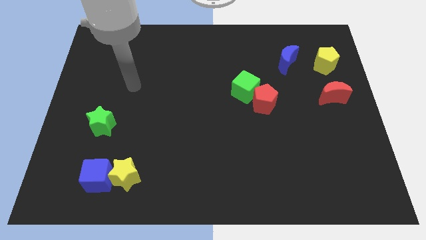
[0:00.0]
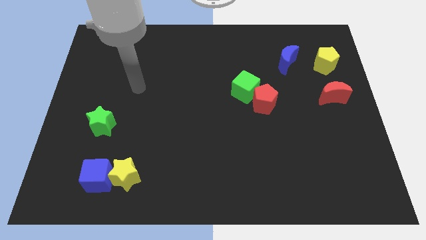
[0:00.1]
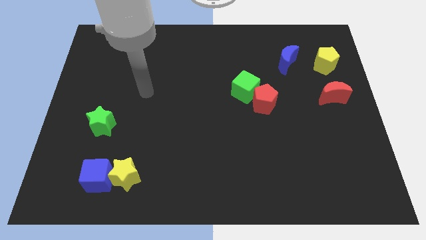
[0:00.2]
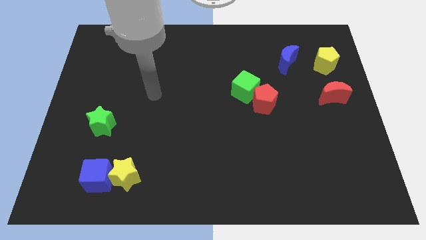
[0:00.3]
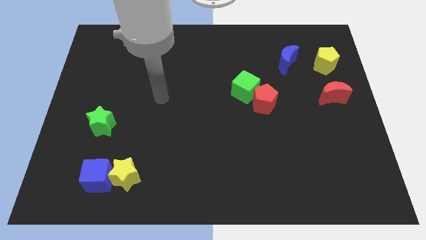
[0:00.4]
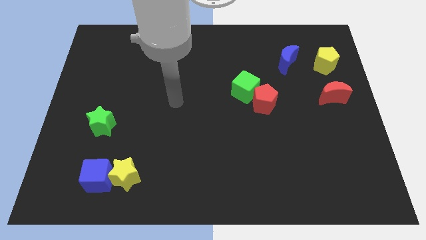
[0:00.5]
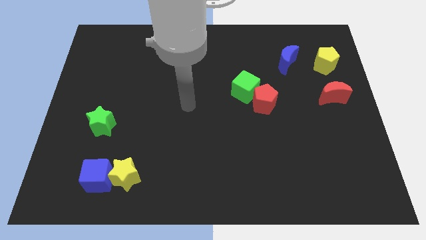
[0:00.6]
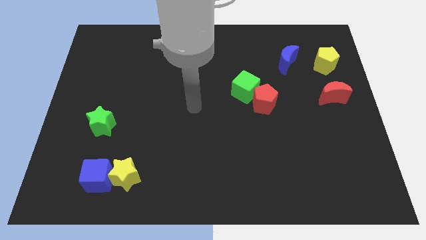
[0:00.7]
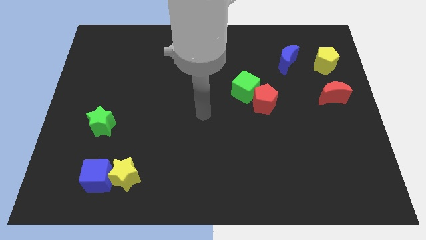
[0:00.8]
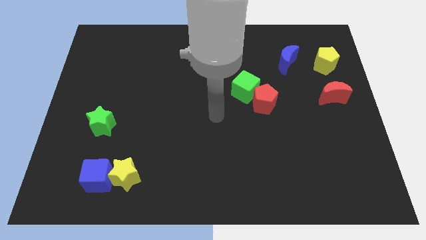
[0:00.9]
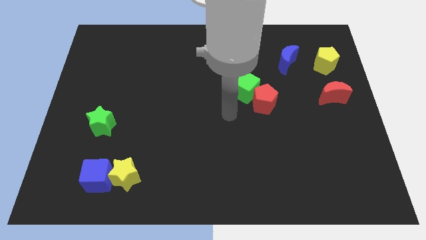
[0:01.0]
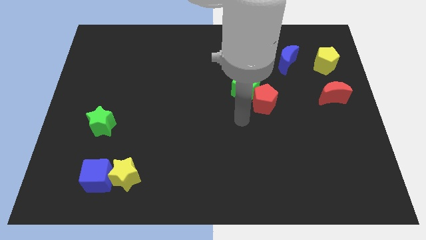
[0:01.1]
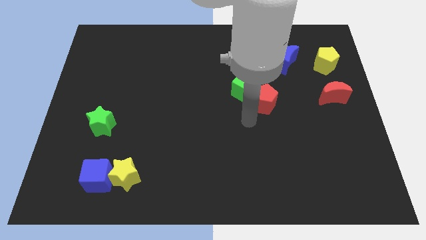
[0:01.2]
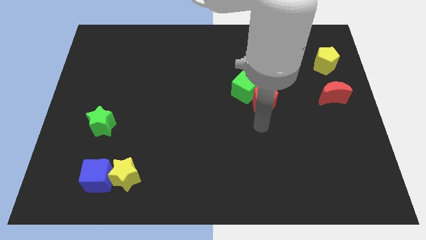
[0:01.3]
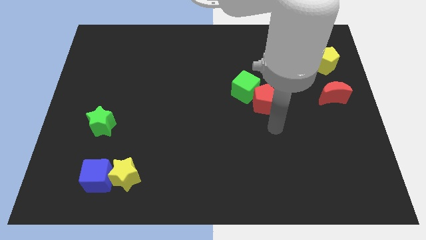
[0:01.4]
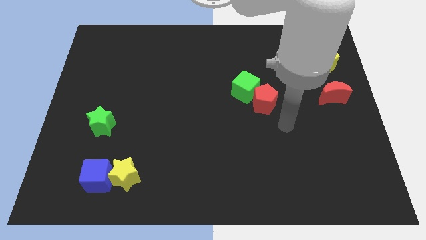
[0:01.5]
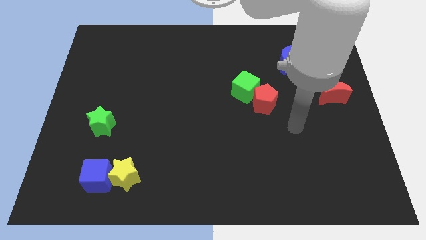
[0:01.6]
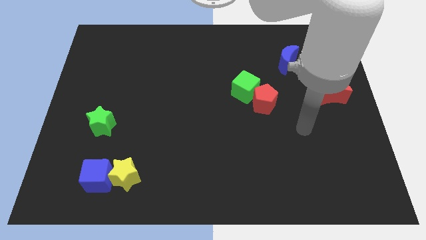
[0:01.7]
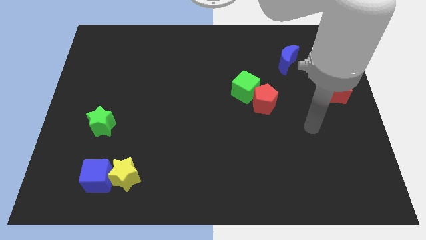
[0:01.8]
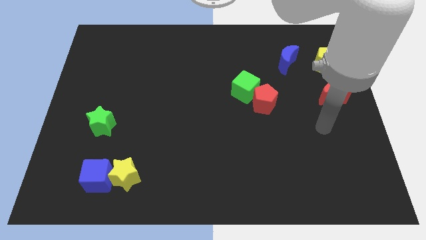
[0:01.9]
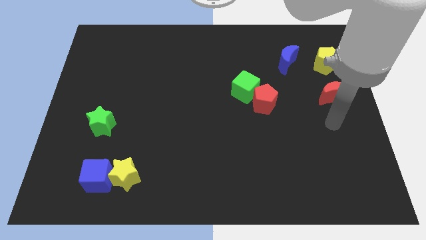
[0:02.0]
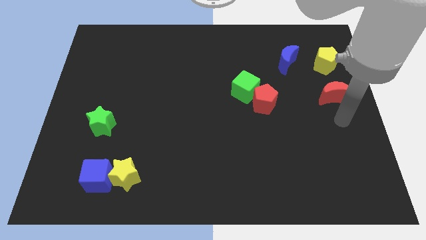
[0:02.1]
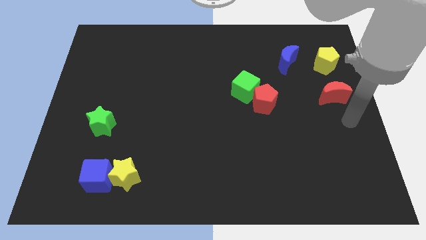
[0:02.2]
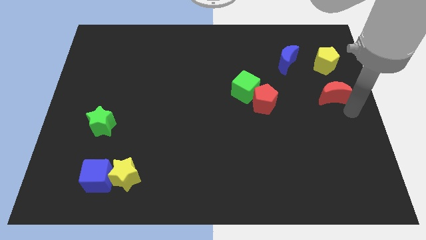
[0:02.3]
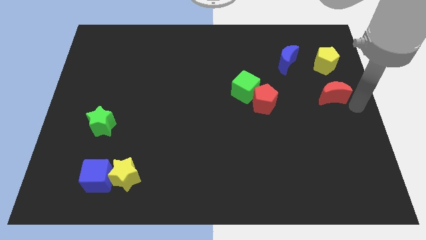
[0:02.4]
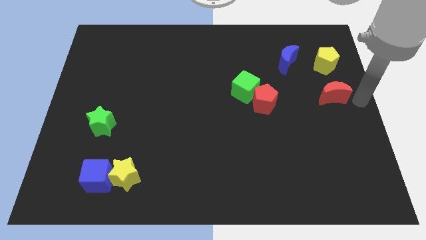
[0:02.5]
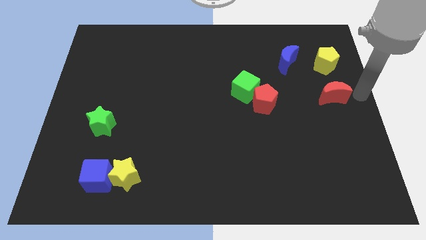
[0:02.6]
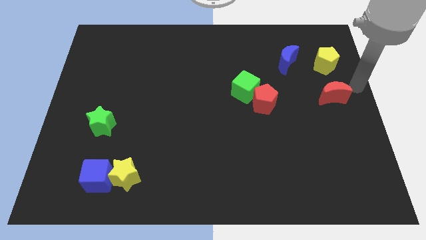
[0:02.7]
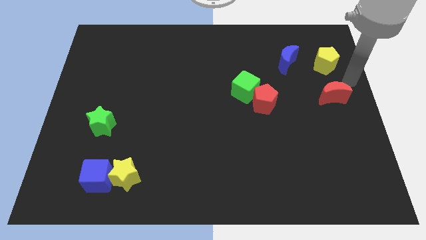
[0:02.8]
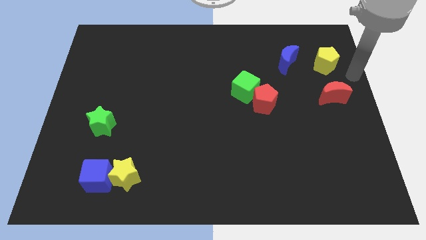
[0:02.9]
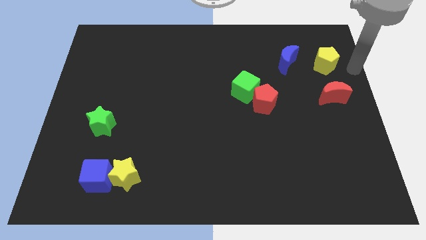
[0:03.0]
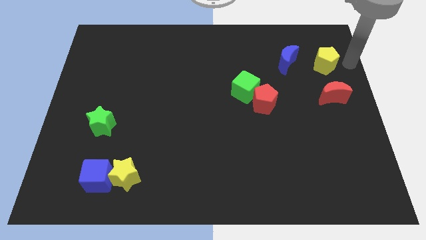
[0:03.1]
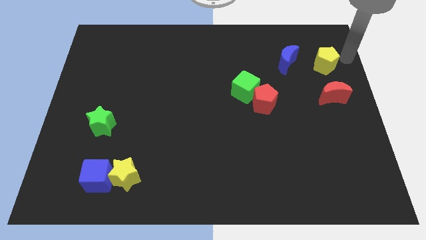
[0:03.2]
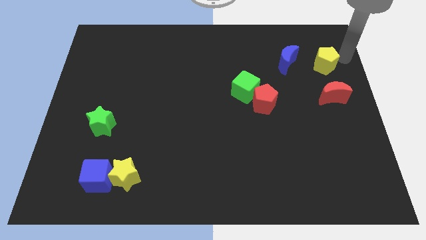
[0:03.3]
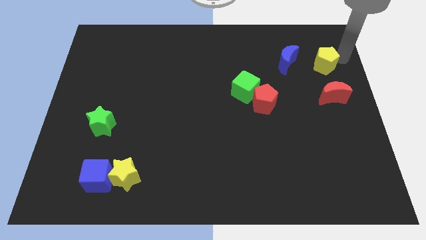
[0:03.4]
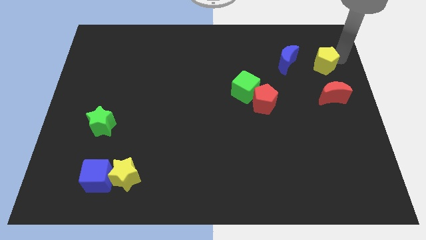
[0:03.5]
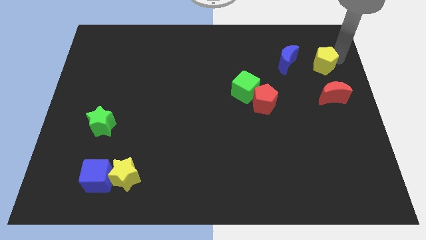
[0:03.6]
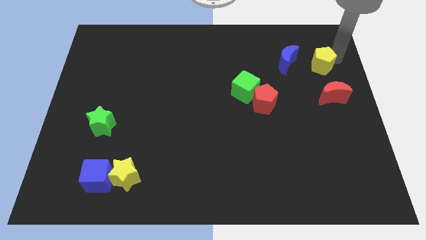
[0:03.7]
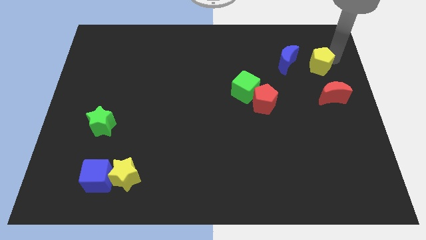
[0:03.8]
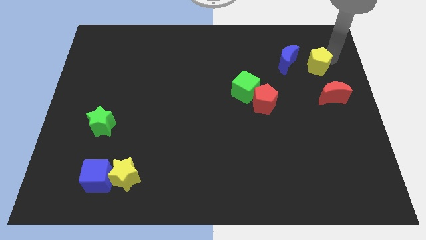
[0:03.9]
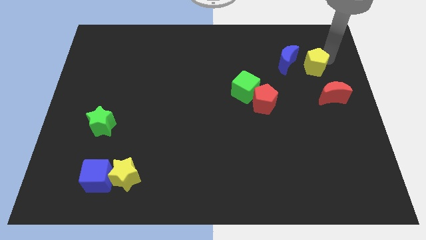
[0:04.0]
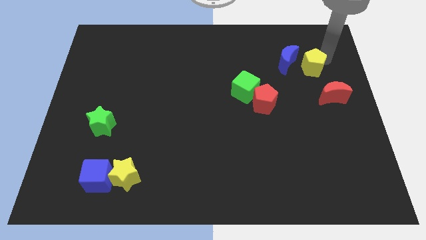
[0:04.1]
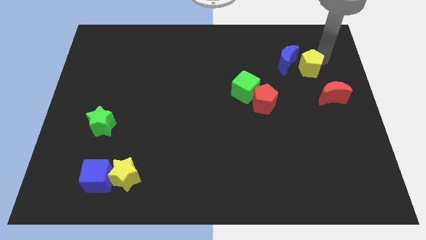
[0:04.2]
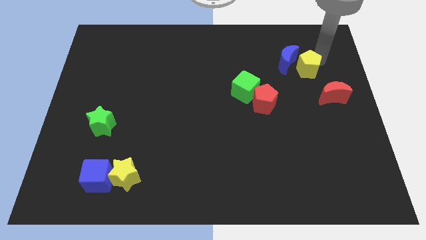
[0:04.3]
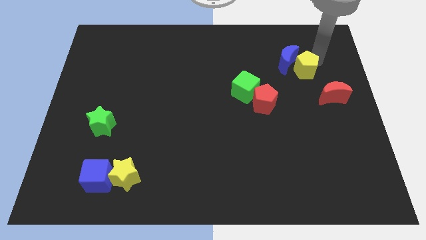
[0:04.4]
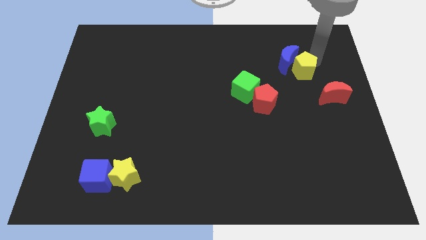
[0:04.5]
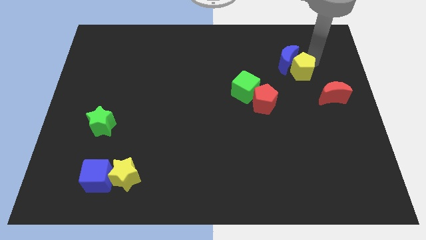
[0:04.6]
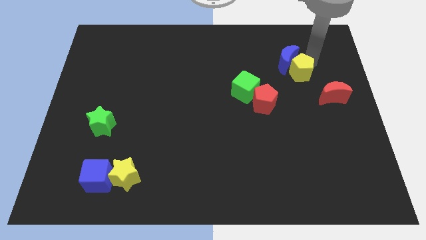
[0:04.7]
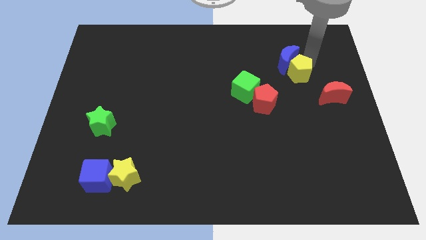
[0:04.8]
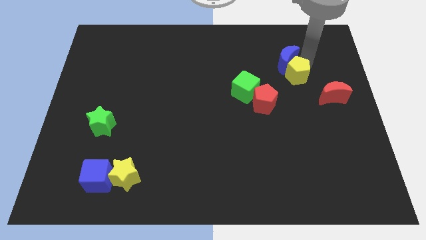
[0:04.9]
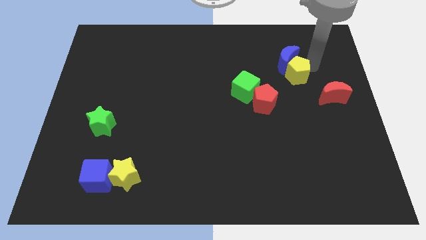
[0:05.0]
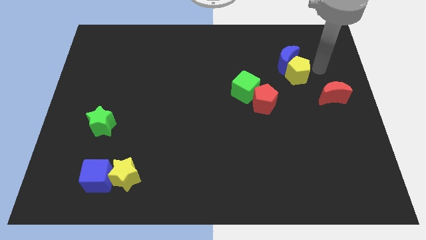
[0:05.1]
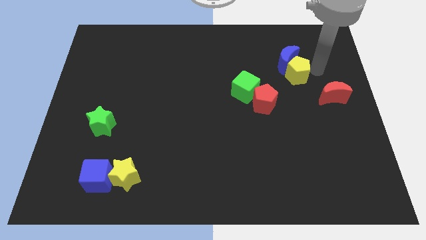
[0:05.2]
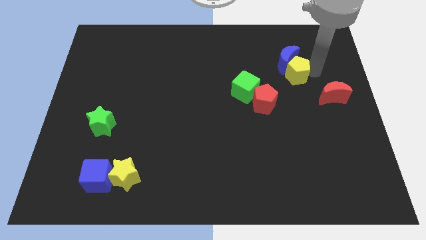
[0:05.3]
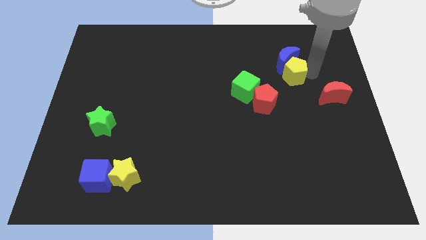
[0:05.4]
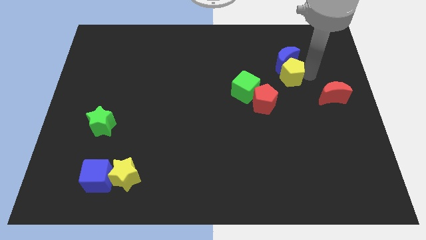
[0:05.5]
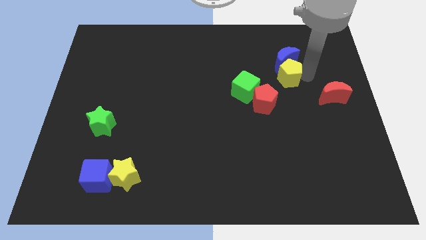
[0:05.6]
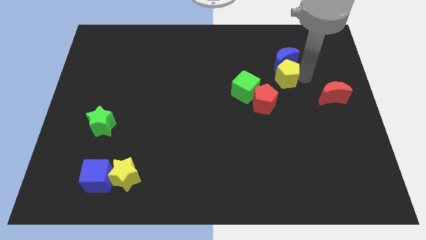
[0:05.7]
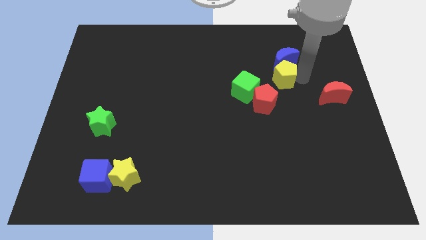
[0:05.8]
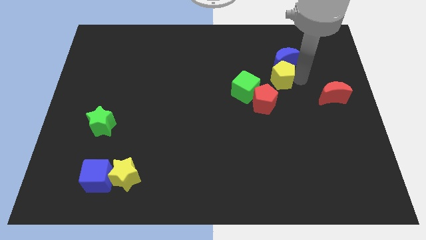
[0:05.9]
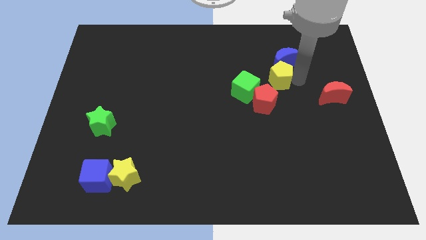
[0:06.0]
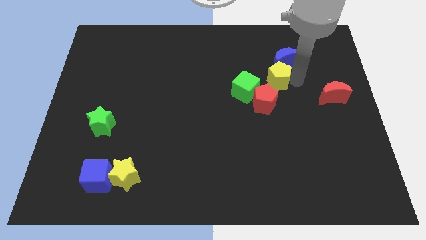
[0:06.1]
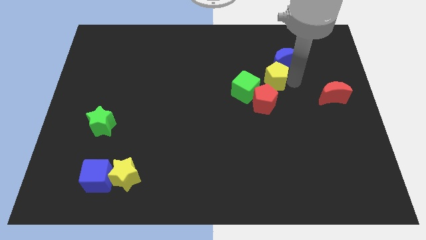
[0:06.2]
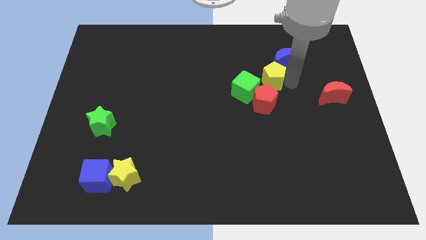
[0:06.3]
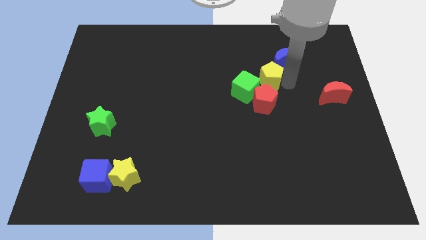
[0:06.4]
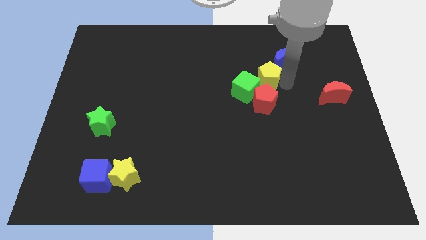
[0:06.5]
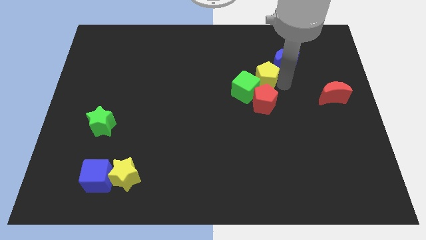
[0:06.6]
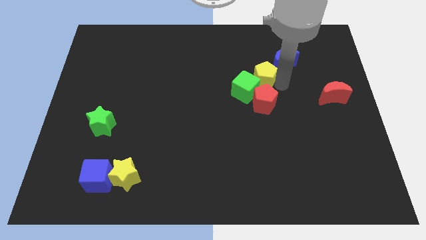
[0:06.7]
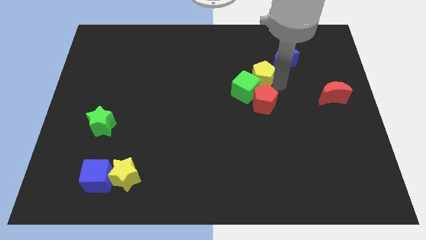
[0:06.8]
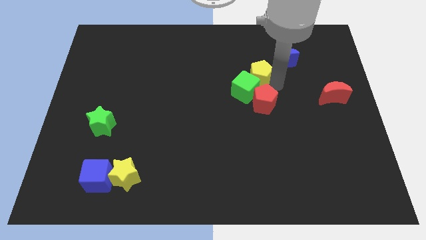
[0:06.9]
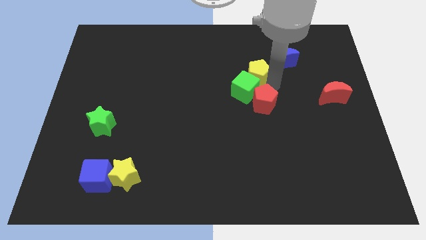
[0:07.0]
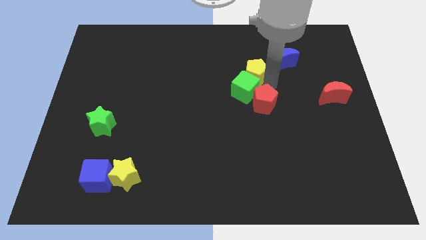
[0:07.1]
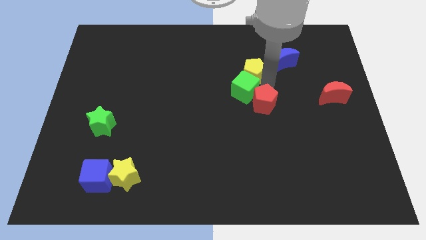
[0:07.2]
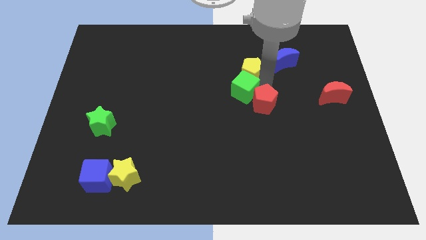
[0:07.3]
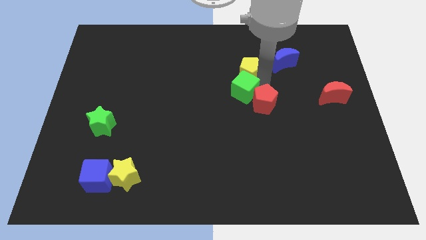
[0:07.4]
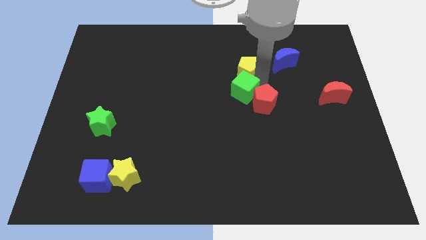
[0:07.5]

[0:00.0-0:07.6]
slide the yellow pentagon to the left

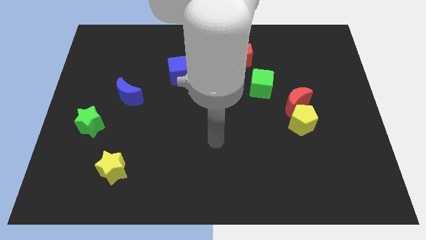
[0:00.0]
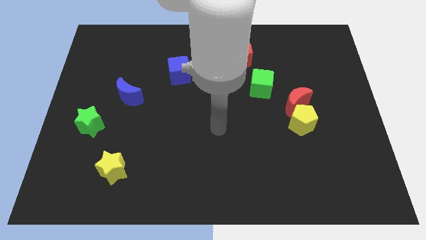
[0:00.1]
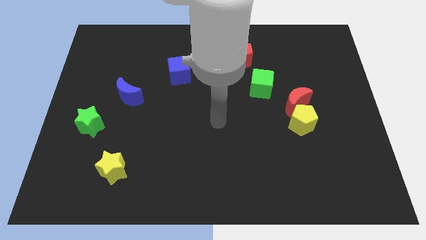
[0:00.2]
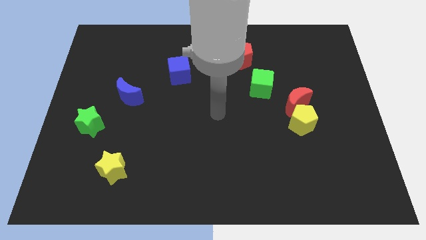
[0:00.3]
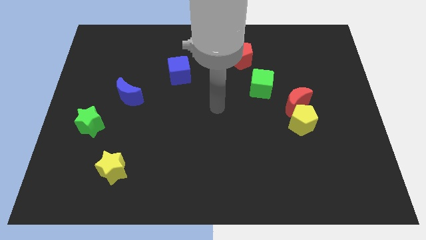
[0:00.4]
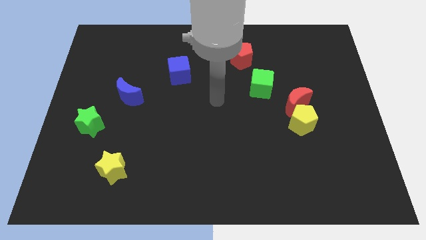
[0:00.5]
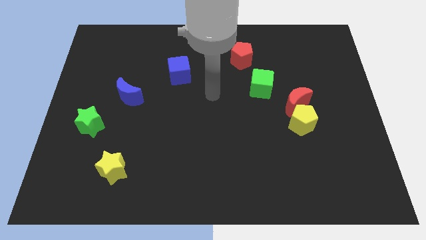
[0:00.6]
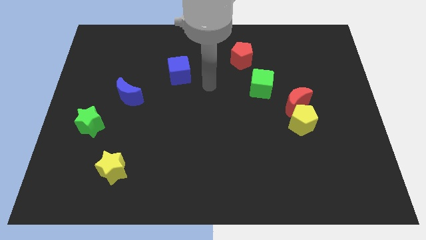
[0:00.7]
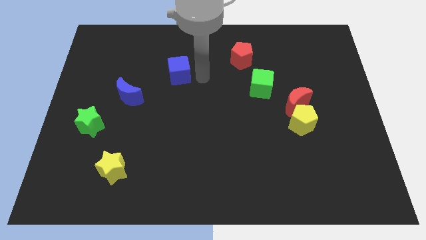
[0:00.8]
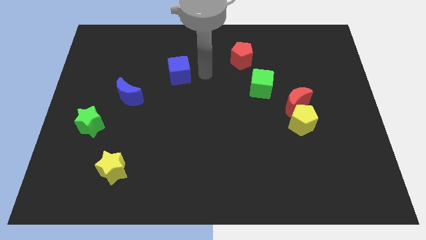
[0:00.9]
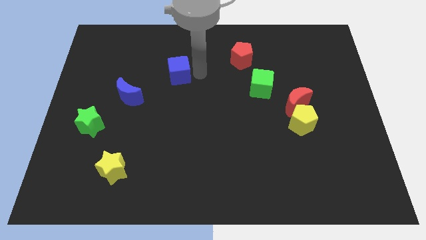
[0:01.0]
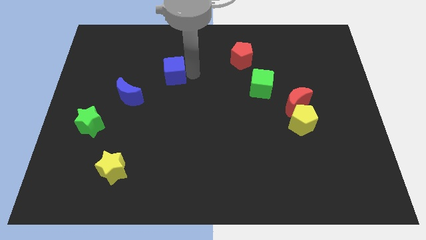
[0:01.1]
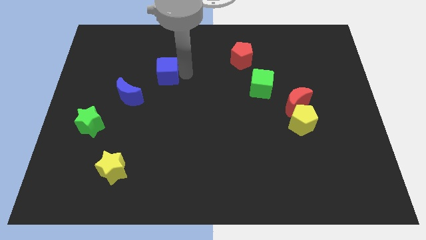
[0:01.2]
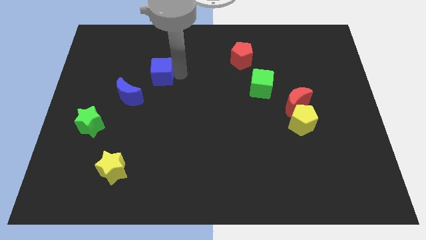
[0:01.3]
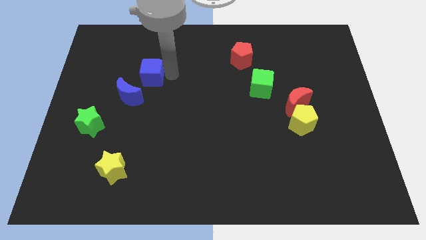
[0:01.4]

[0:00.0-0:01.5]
slightly move the blue cube left
